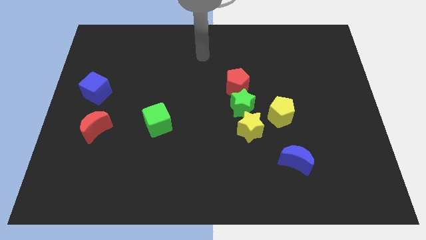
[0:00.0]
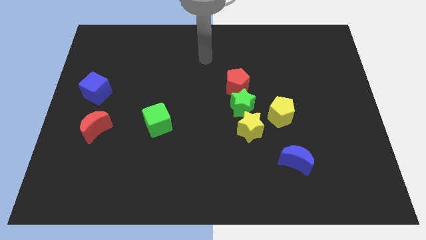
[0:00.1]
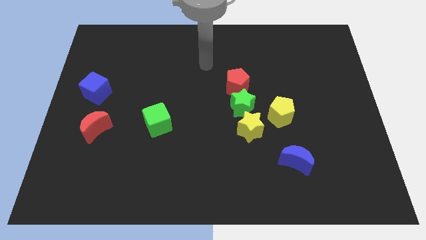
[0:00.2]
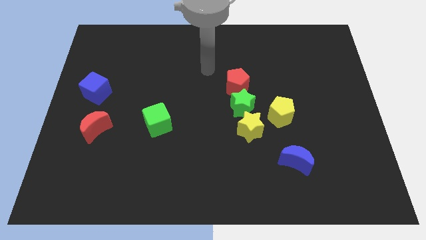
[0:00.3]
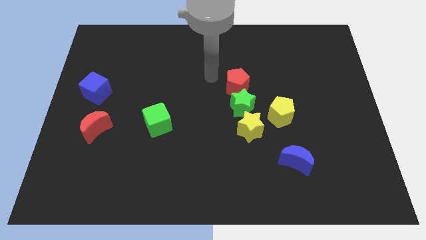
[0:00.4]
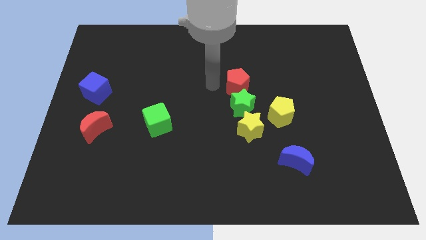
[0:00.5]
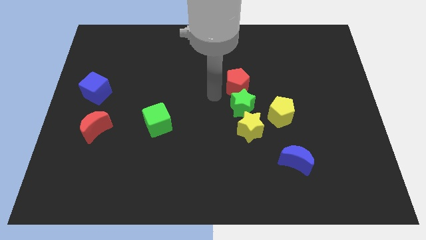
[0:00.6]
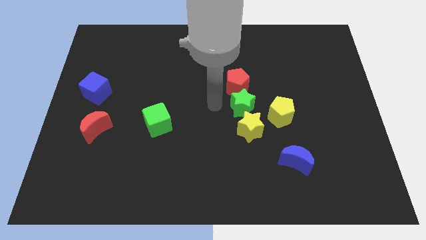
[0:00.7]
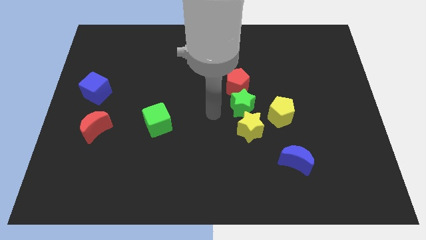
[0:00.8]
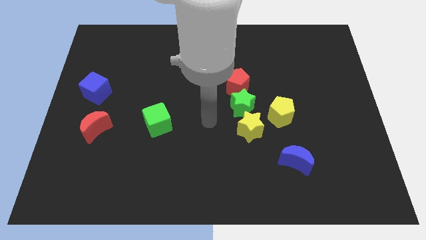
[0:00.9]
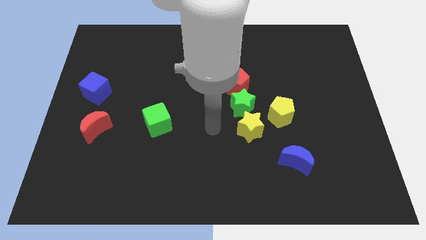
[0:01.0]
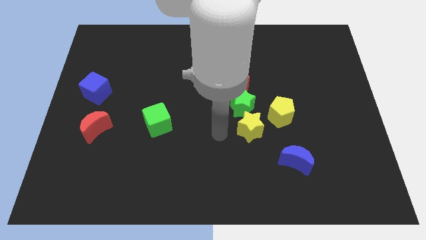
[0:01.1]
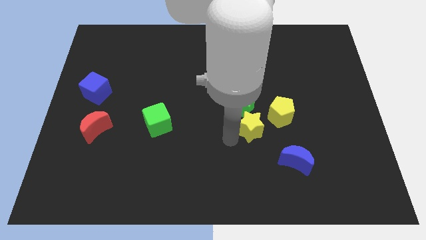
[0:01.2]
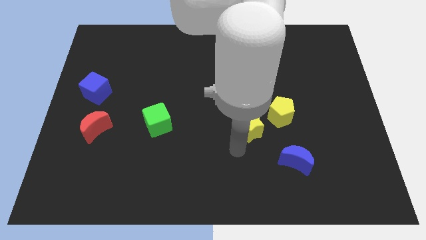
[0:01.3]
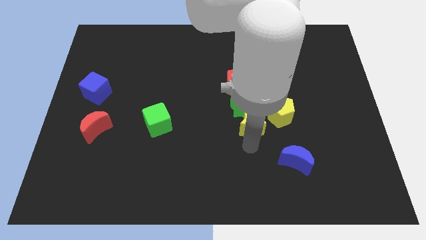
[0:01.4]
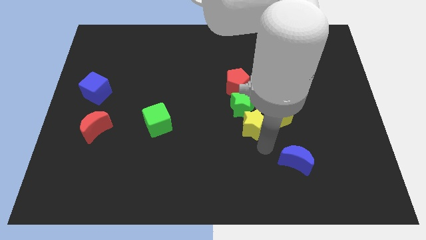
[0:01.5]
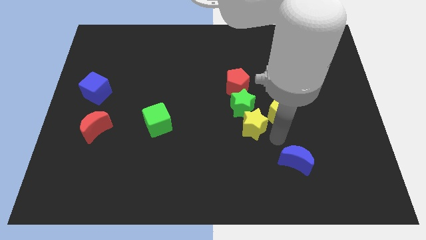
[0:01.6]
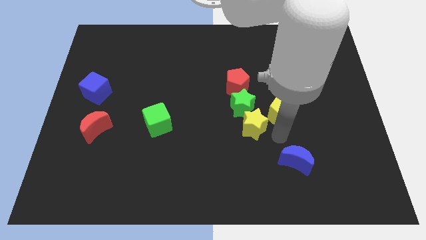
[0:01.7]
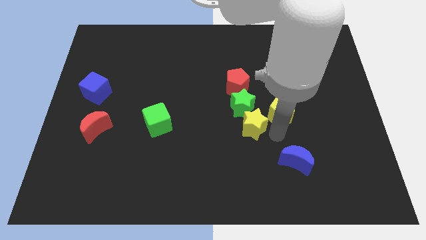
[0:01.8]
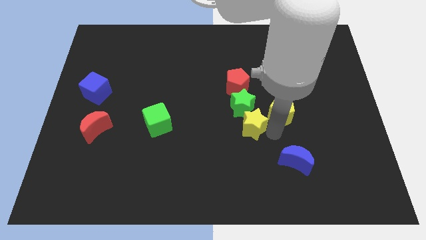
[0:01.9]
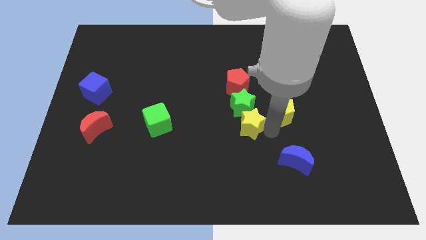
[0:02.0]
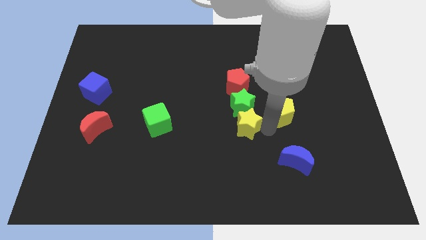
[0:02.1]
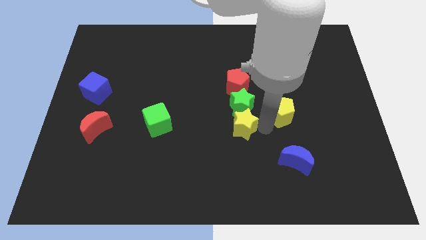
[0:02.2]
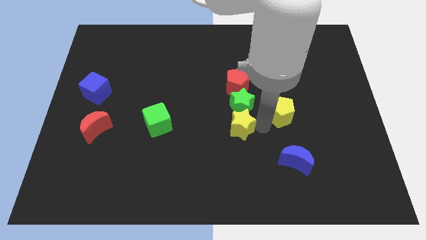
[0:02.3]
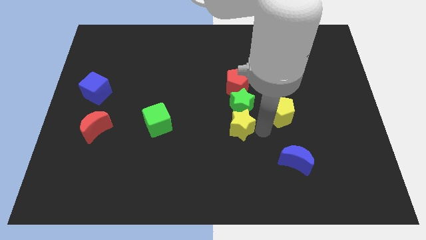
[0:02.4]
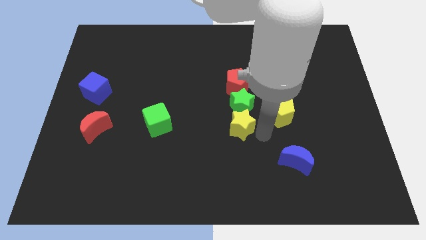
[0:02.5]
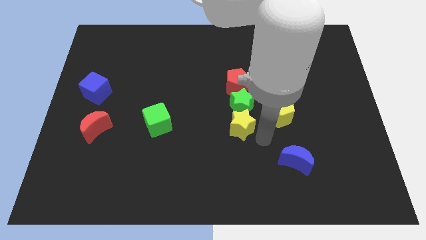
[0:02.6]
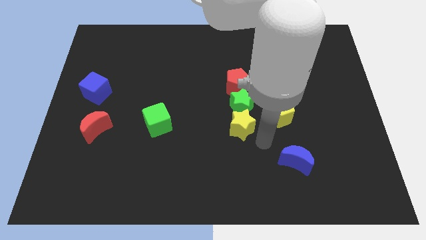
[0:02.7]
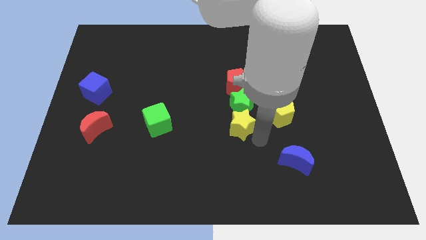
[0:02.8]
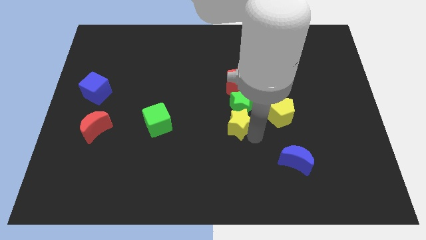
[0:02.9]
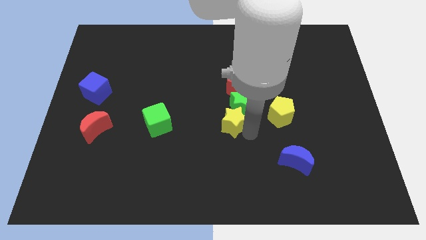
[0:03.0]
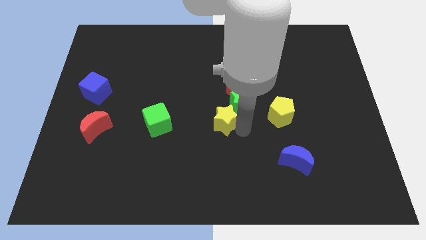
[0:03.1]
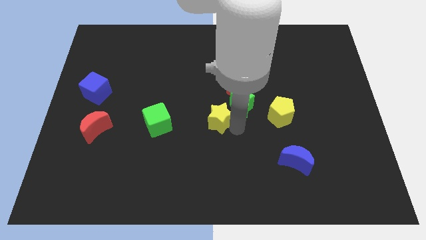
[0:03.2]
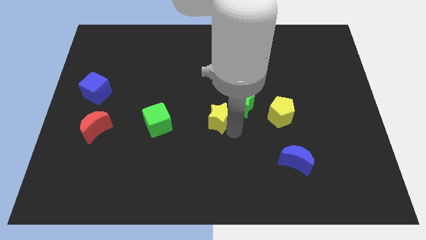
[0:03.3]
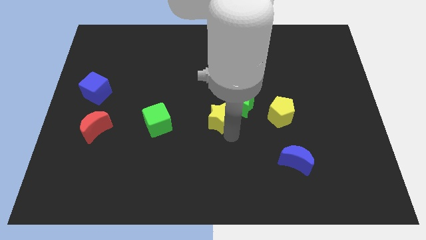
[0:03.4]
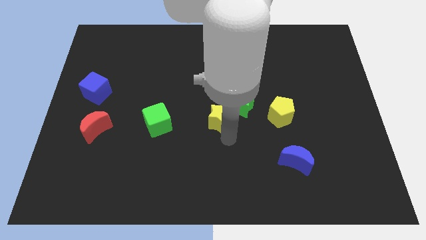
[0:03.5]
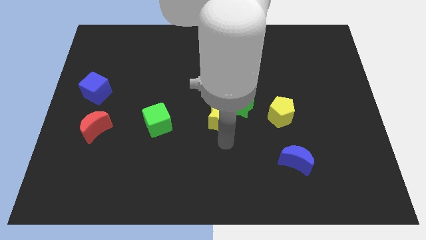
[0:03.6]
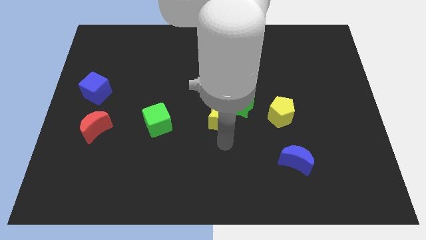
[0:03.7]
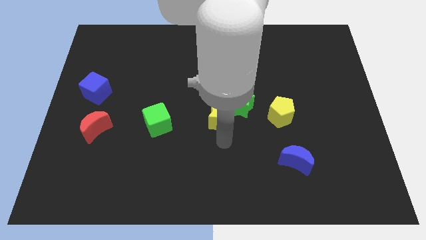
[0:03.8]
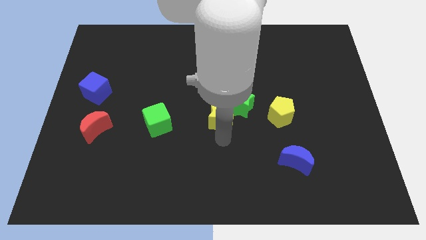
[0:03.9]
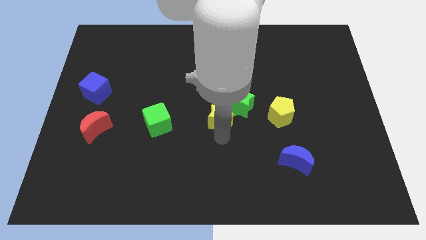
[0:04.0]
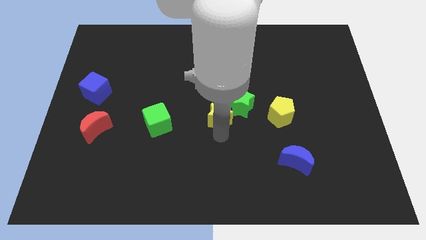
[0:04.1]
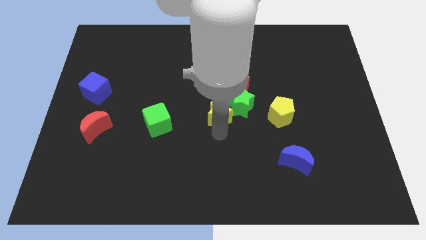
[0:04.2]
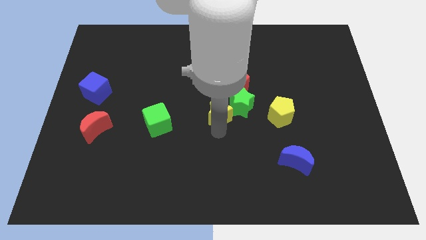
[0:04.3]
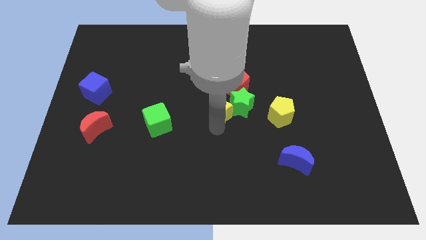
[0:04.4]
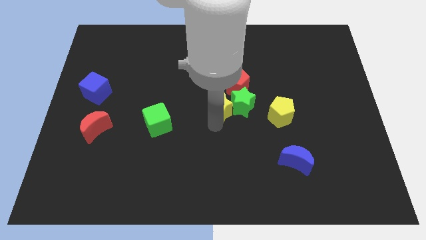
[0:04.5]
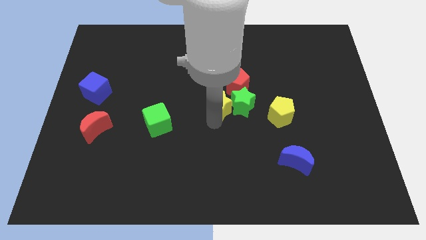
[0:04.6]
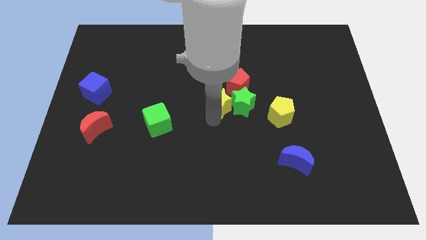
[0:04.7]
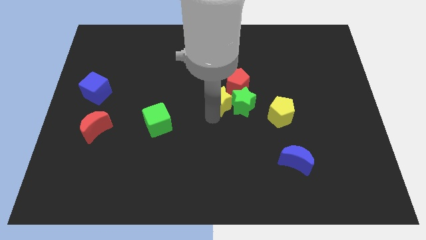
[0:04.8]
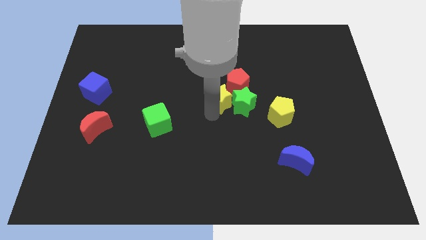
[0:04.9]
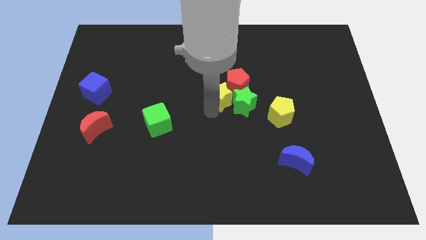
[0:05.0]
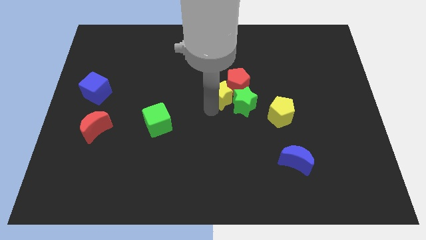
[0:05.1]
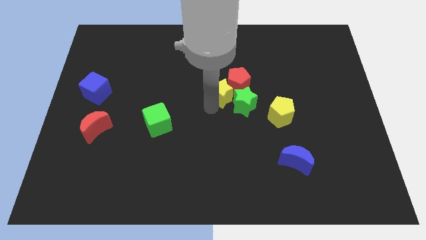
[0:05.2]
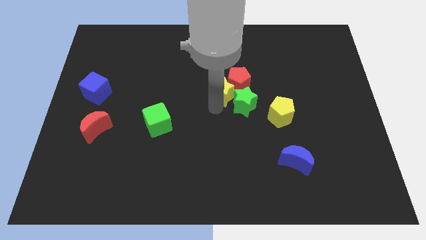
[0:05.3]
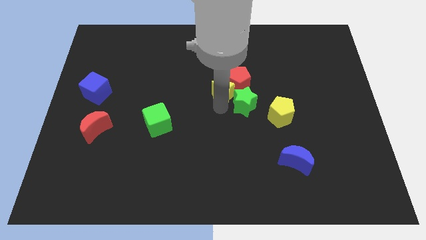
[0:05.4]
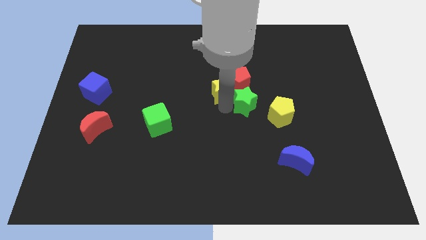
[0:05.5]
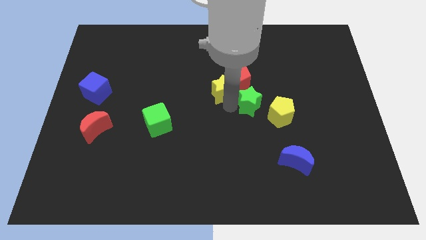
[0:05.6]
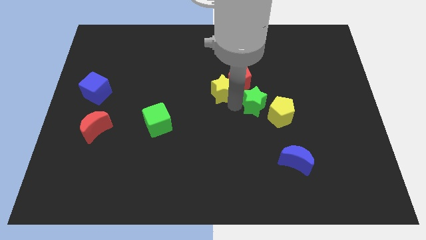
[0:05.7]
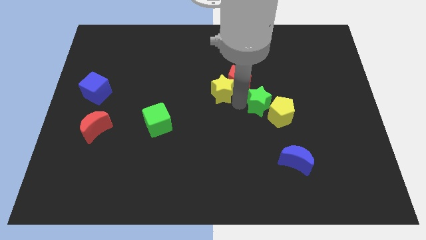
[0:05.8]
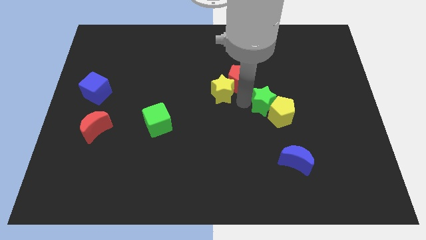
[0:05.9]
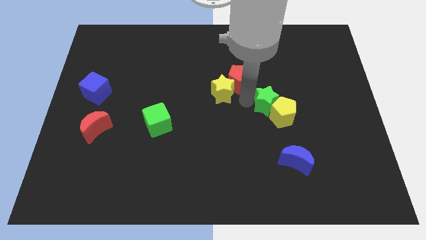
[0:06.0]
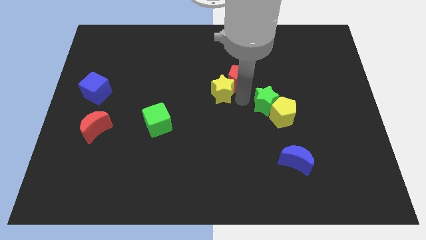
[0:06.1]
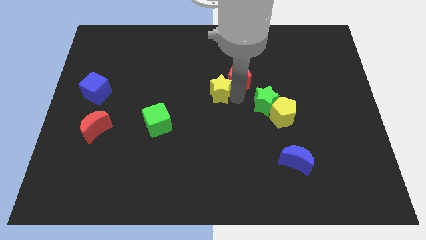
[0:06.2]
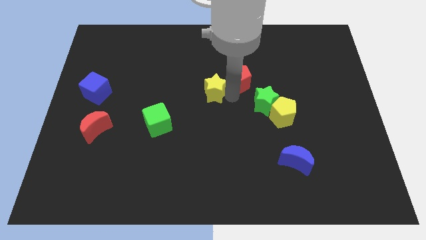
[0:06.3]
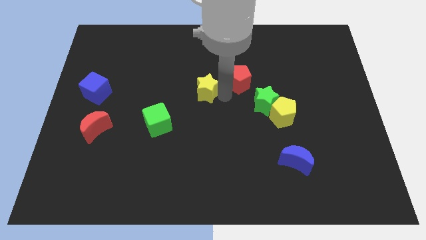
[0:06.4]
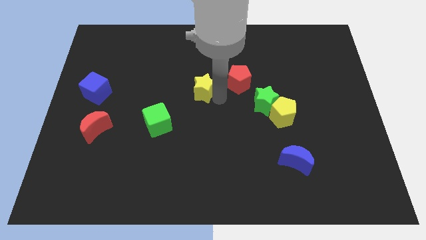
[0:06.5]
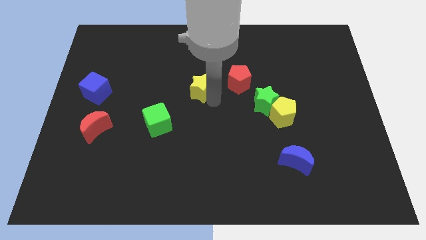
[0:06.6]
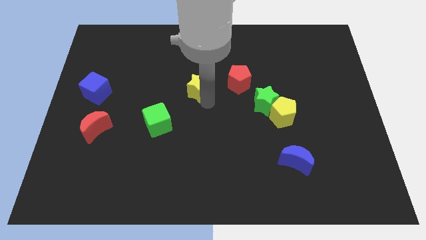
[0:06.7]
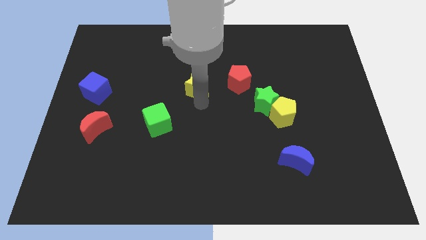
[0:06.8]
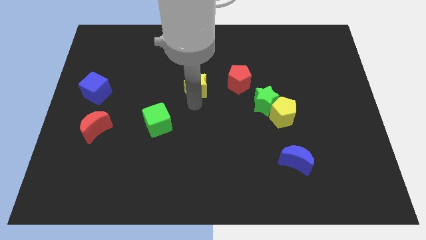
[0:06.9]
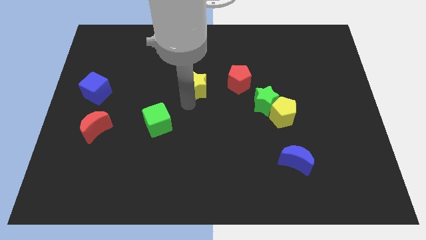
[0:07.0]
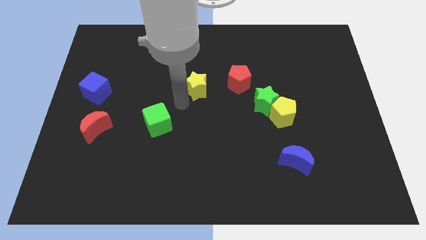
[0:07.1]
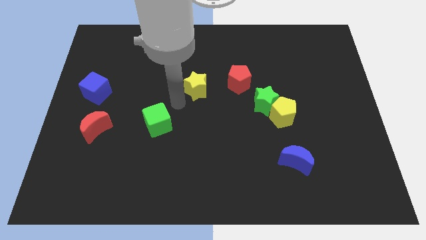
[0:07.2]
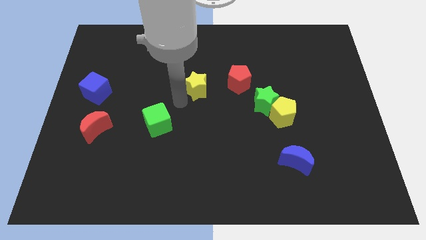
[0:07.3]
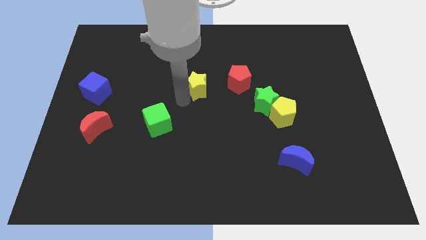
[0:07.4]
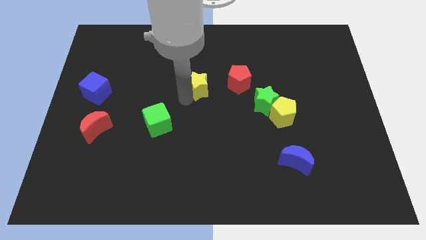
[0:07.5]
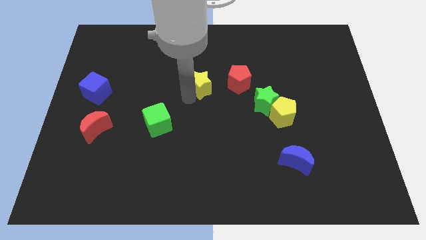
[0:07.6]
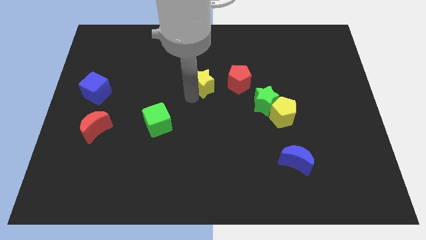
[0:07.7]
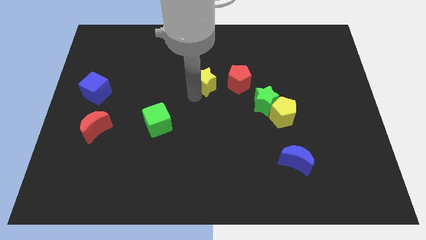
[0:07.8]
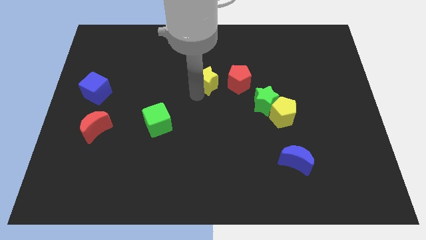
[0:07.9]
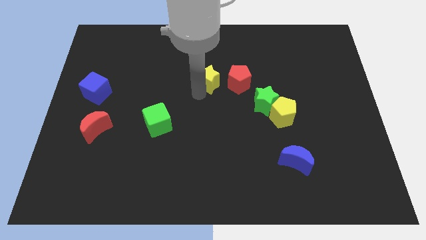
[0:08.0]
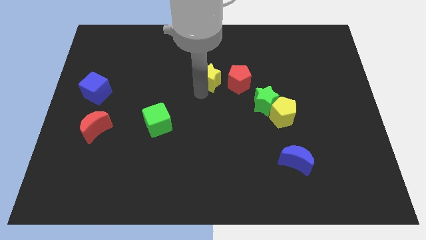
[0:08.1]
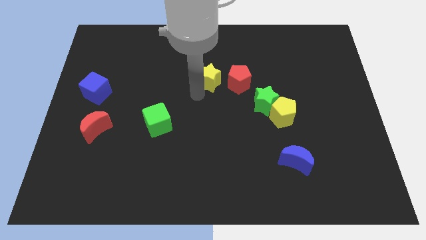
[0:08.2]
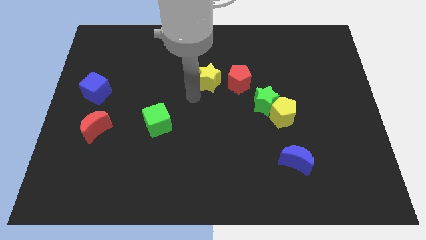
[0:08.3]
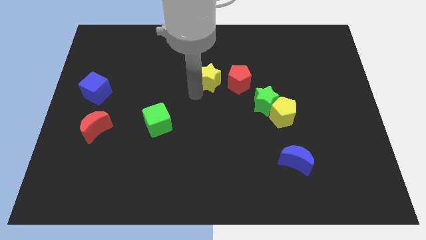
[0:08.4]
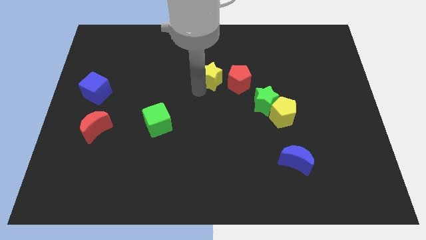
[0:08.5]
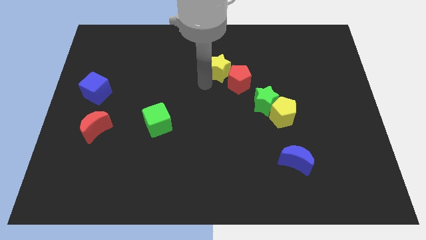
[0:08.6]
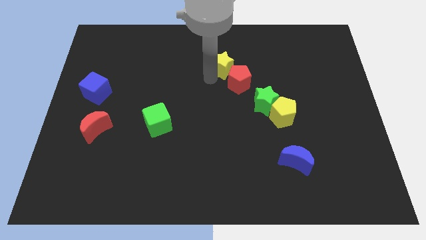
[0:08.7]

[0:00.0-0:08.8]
slide the yellow star above the red pentagon
